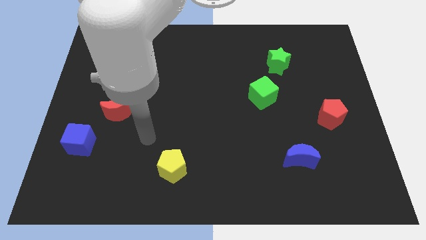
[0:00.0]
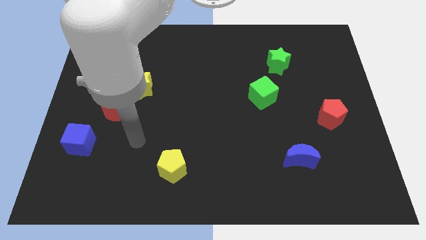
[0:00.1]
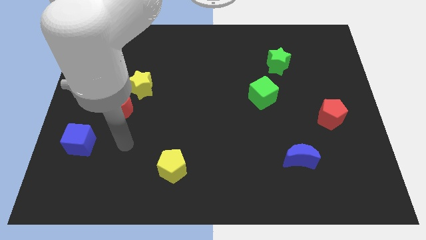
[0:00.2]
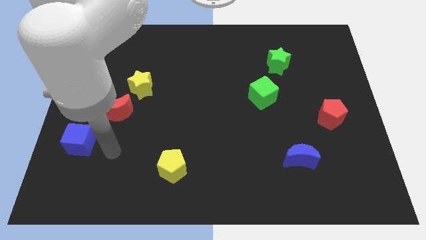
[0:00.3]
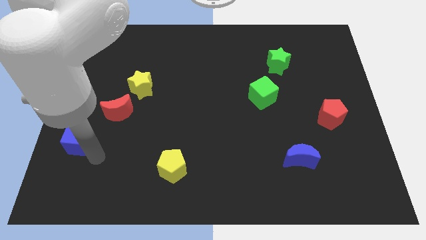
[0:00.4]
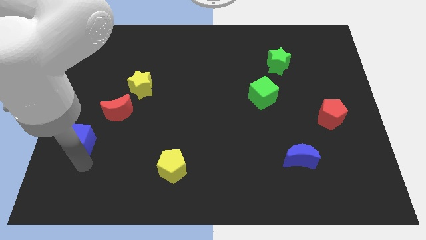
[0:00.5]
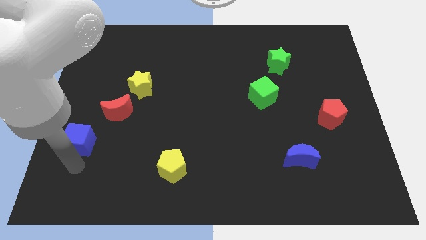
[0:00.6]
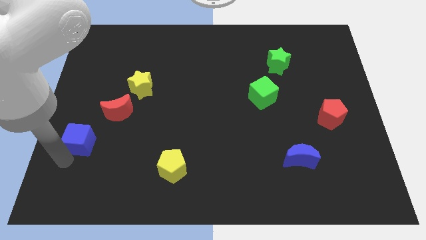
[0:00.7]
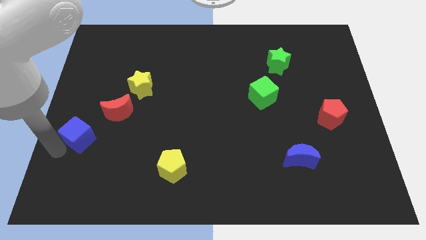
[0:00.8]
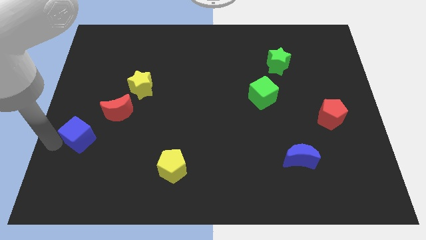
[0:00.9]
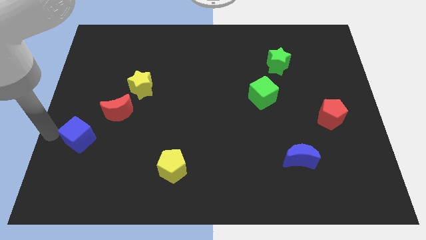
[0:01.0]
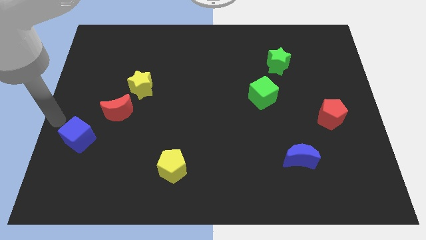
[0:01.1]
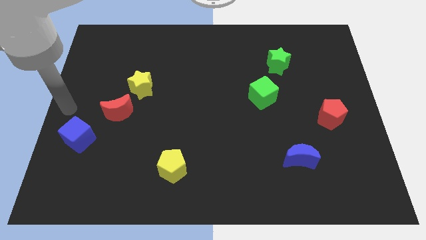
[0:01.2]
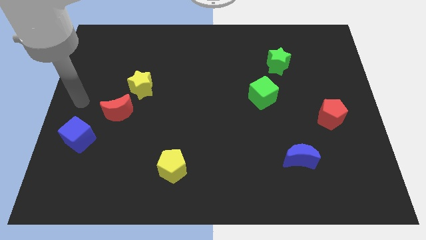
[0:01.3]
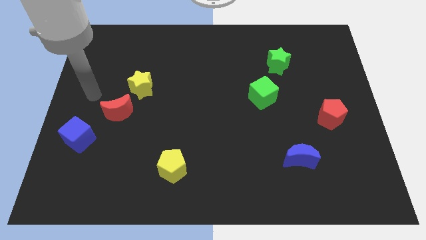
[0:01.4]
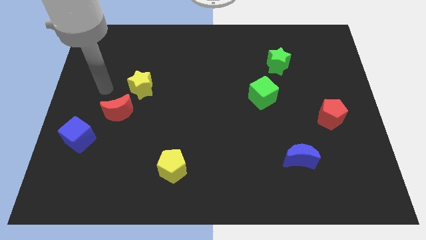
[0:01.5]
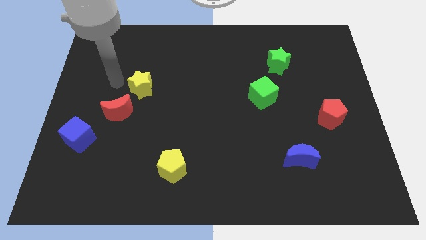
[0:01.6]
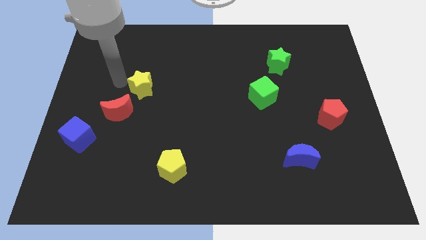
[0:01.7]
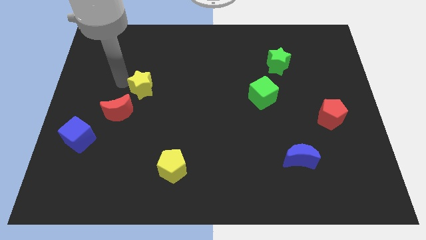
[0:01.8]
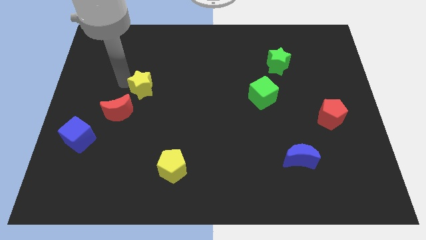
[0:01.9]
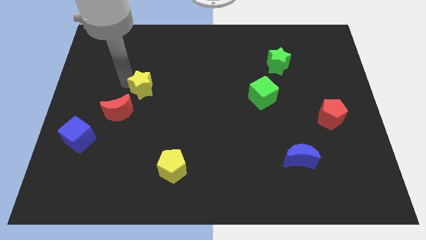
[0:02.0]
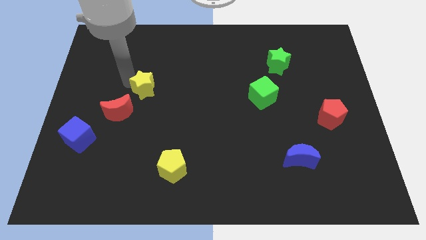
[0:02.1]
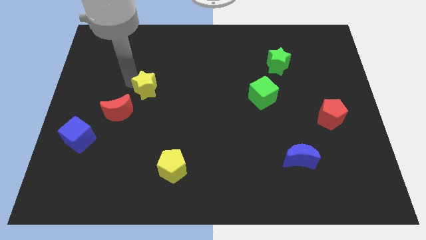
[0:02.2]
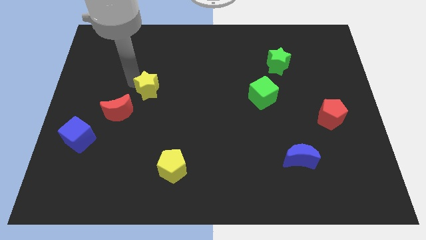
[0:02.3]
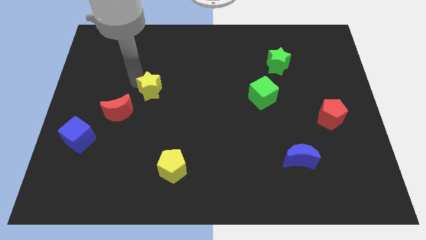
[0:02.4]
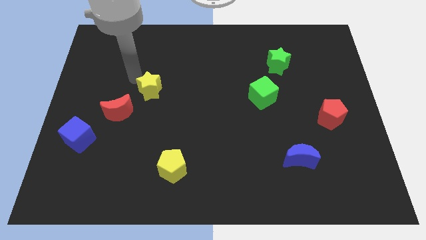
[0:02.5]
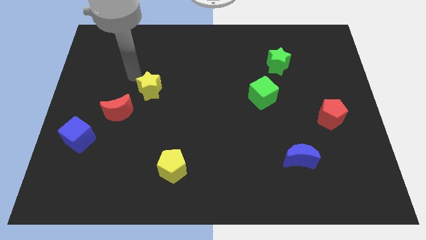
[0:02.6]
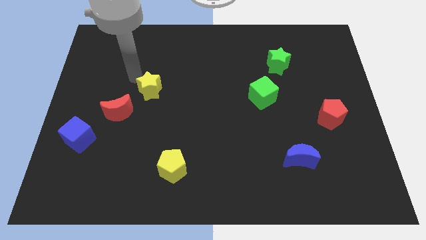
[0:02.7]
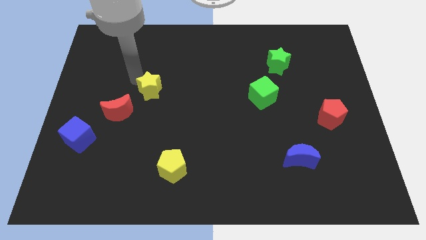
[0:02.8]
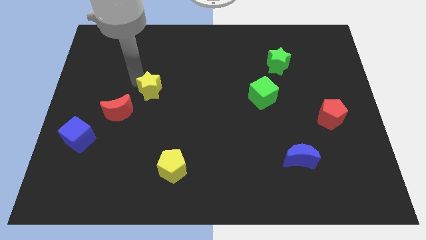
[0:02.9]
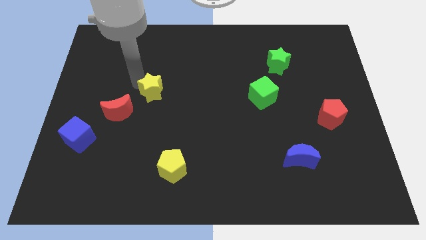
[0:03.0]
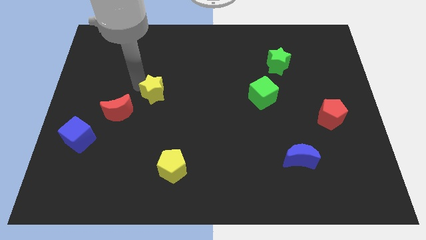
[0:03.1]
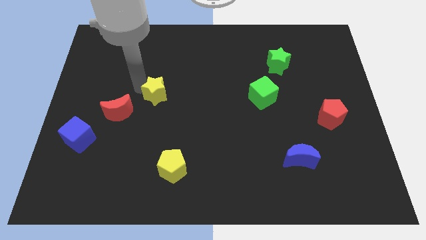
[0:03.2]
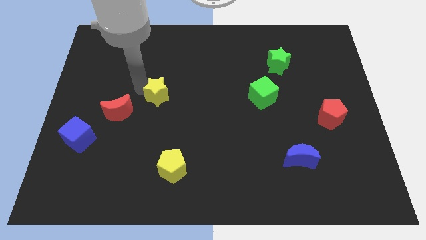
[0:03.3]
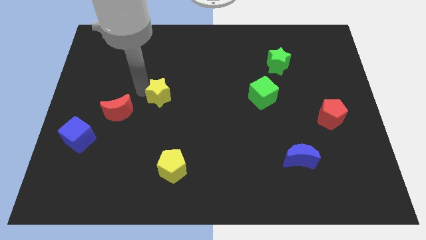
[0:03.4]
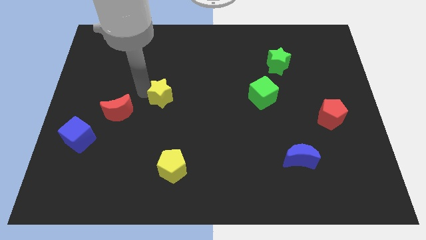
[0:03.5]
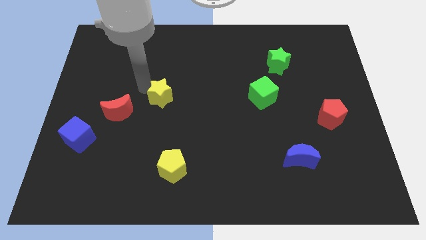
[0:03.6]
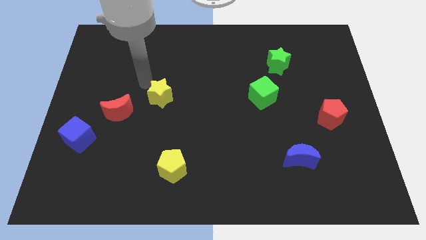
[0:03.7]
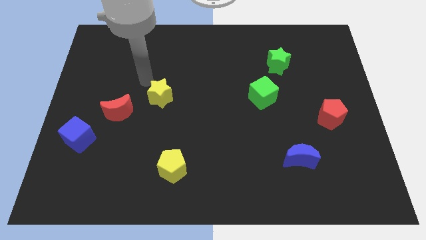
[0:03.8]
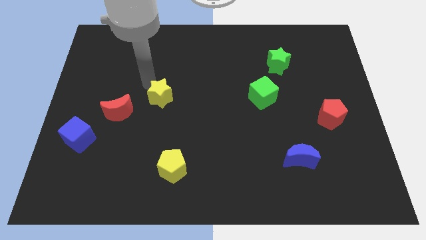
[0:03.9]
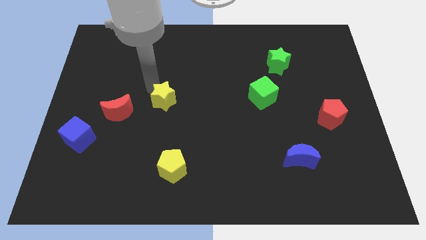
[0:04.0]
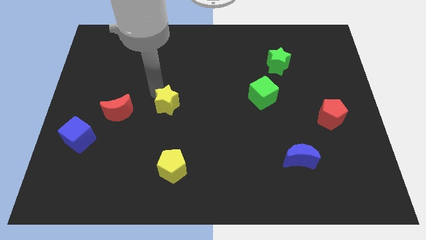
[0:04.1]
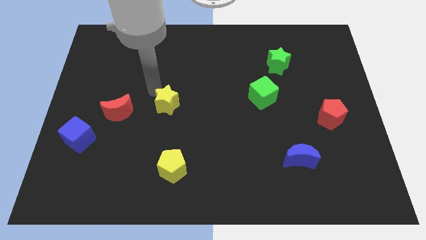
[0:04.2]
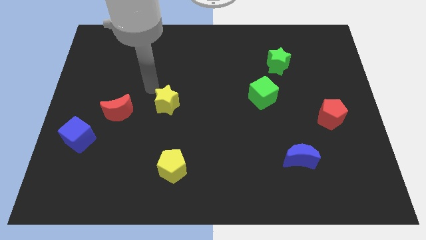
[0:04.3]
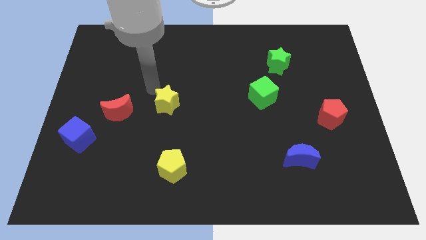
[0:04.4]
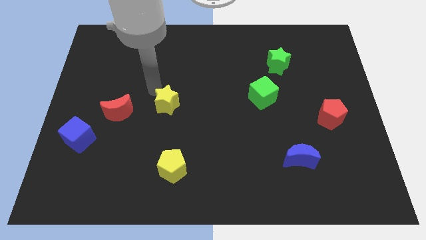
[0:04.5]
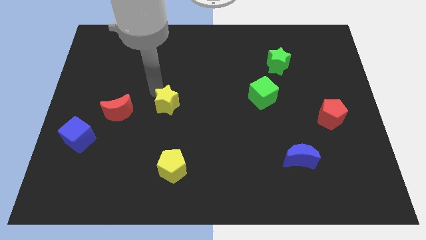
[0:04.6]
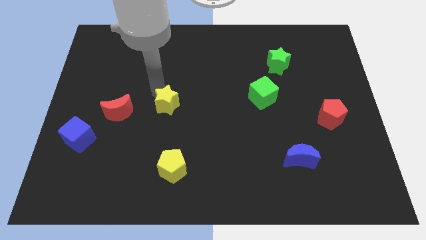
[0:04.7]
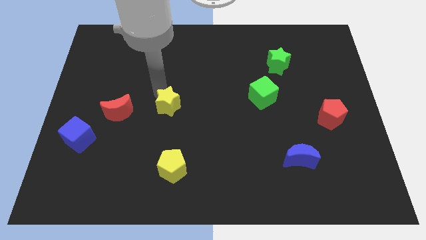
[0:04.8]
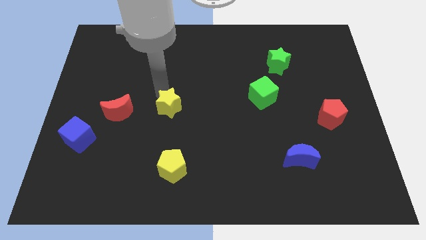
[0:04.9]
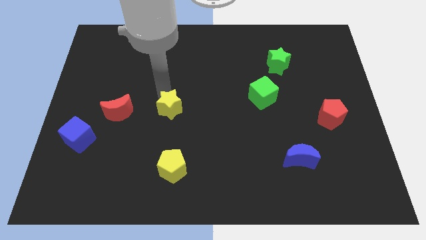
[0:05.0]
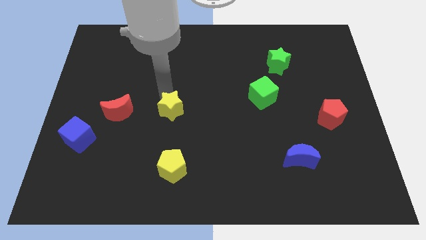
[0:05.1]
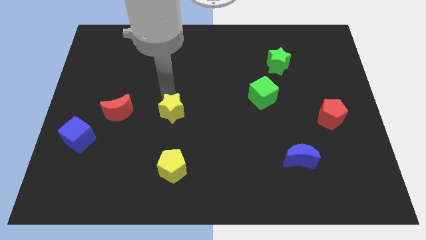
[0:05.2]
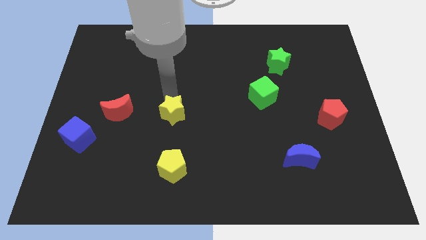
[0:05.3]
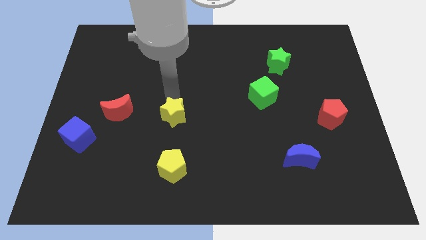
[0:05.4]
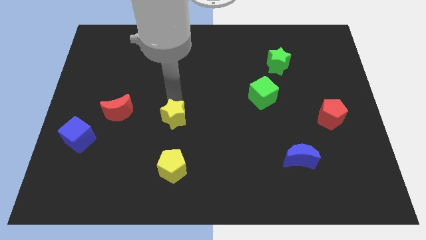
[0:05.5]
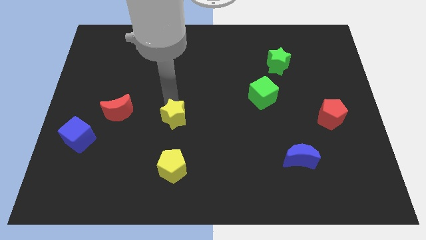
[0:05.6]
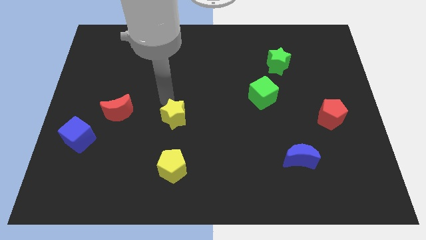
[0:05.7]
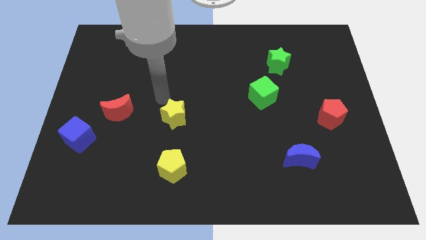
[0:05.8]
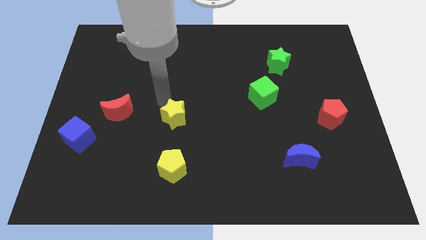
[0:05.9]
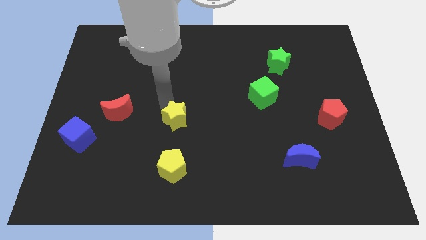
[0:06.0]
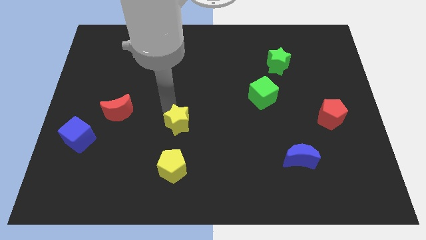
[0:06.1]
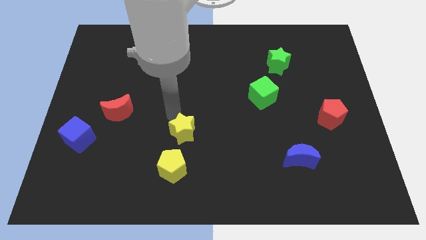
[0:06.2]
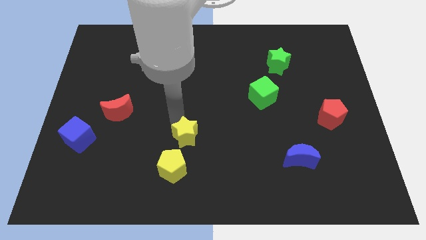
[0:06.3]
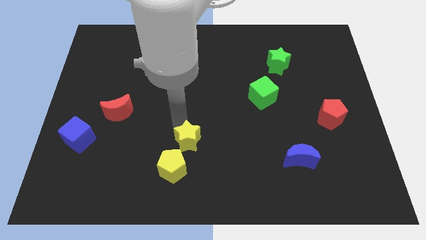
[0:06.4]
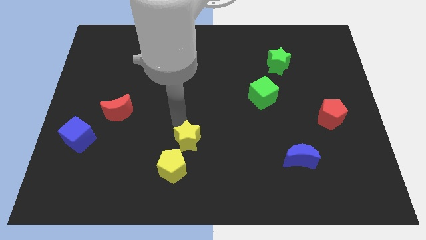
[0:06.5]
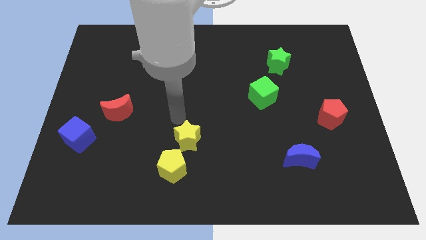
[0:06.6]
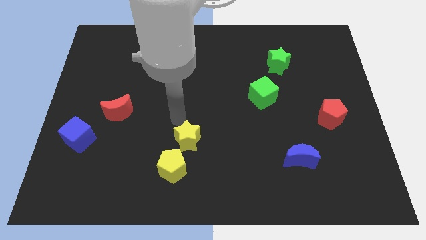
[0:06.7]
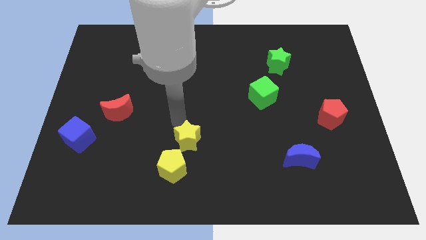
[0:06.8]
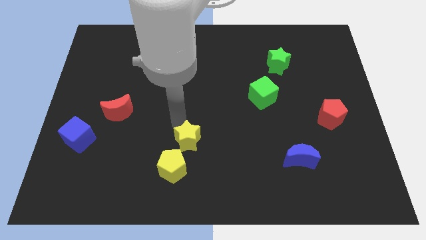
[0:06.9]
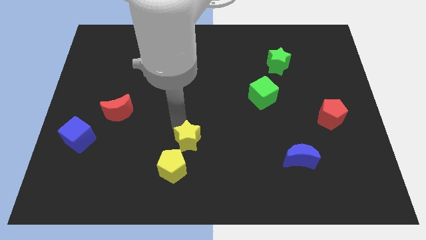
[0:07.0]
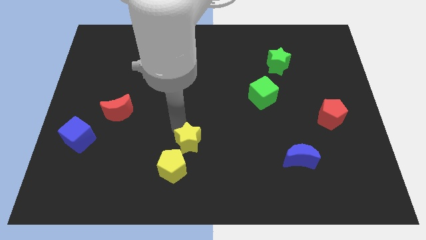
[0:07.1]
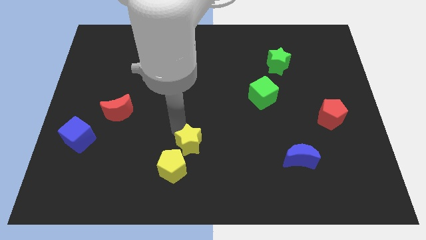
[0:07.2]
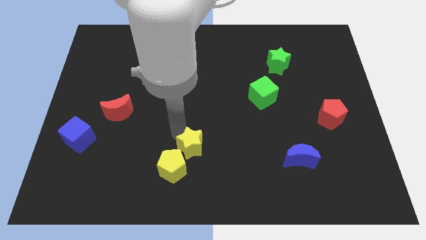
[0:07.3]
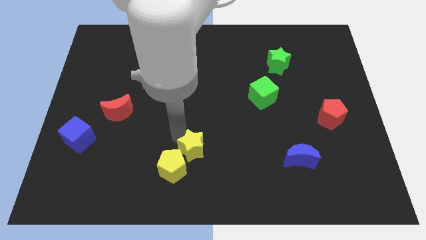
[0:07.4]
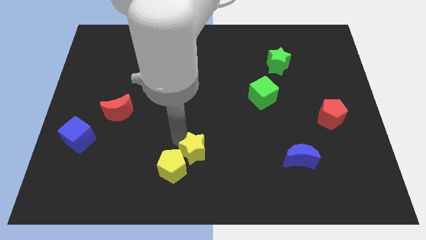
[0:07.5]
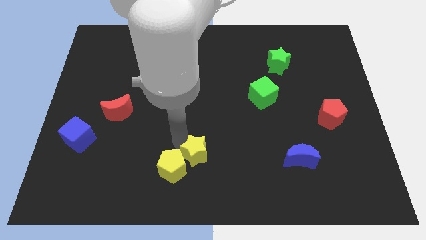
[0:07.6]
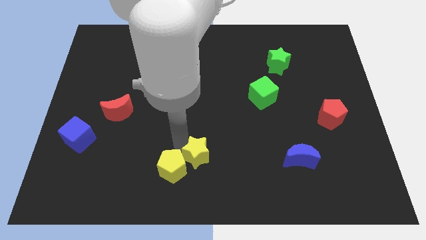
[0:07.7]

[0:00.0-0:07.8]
move the yellow star to the bottom side
